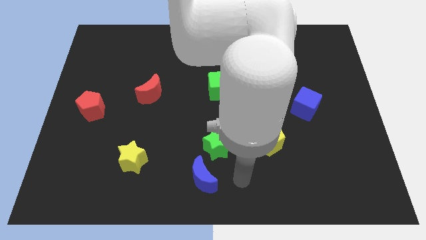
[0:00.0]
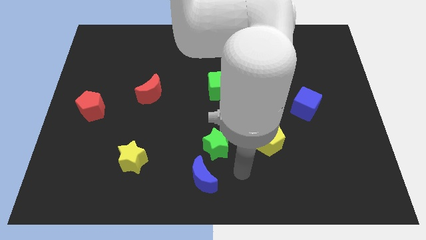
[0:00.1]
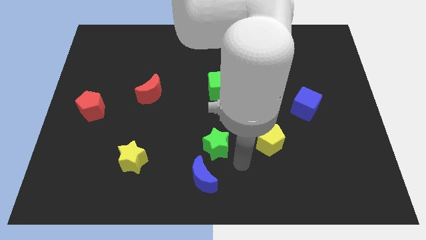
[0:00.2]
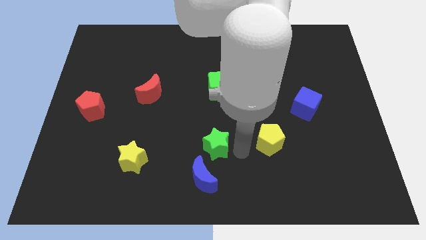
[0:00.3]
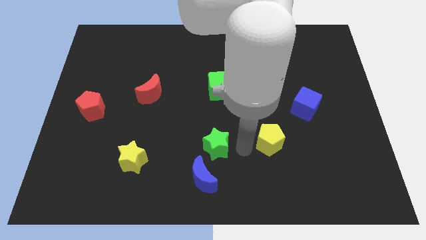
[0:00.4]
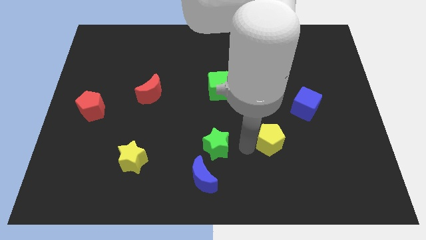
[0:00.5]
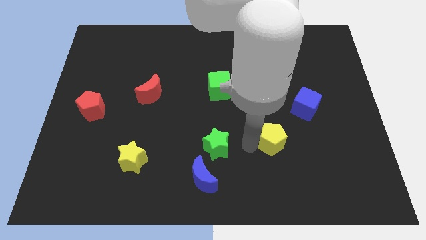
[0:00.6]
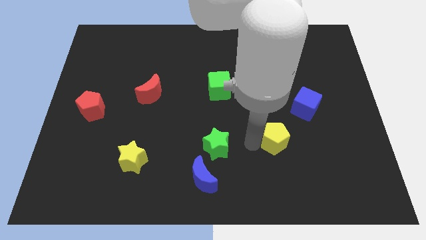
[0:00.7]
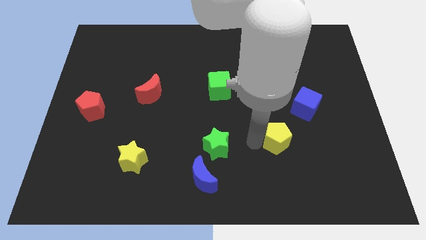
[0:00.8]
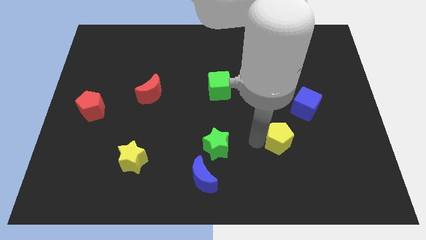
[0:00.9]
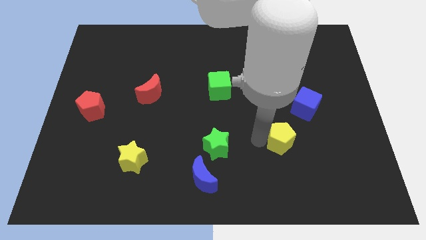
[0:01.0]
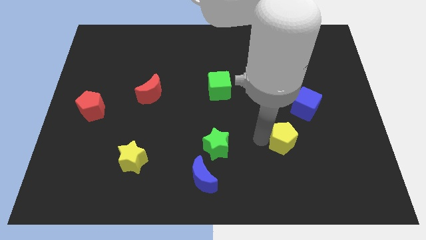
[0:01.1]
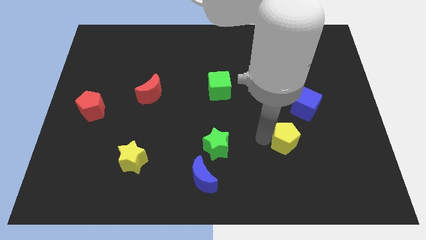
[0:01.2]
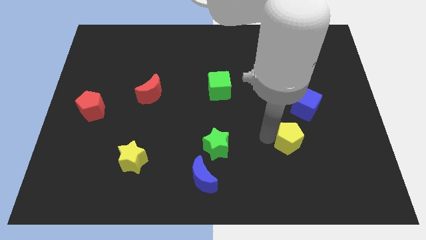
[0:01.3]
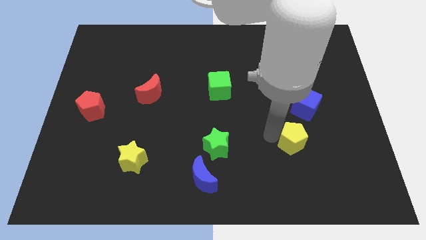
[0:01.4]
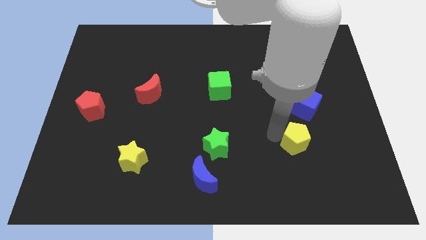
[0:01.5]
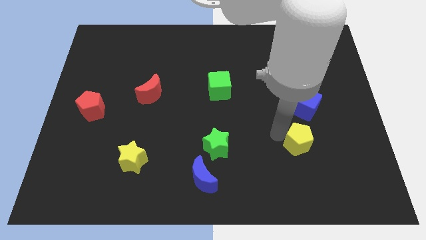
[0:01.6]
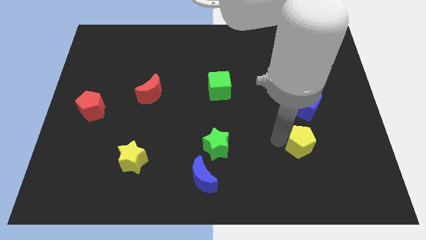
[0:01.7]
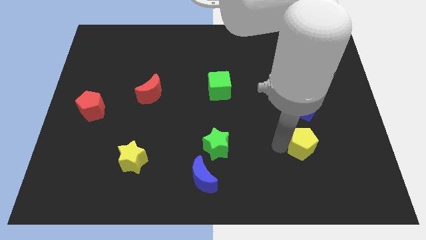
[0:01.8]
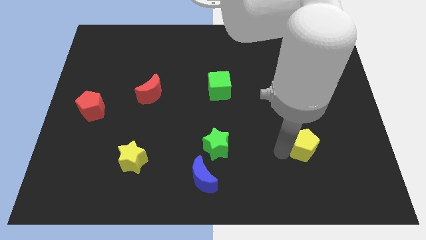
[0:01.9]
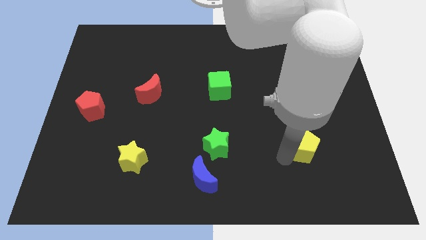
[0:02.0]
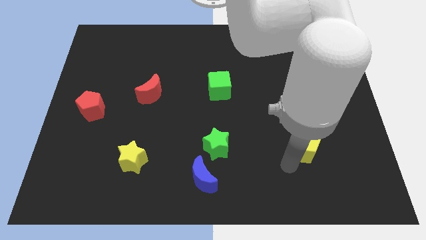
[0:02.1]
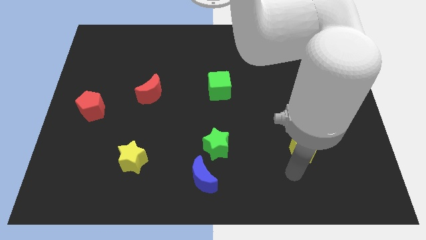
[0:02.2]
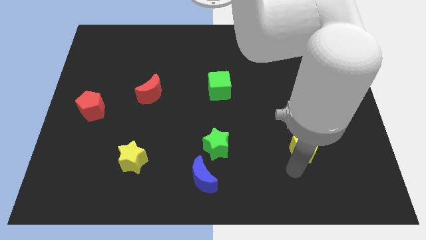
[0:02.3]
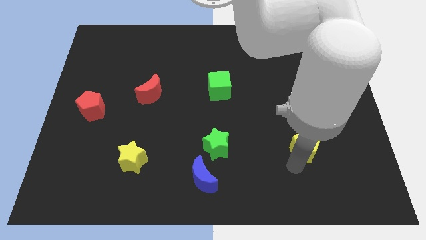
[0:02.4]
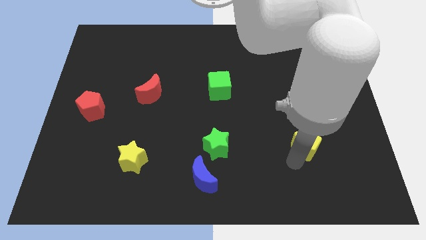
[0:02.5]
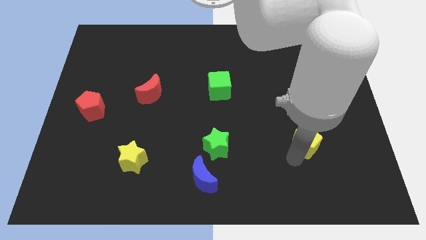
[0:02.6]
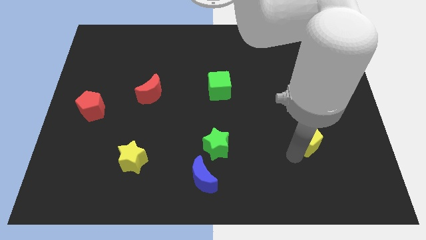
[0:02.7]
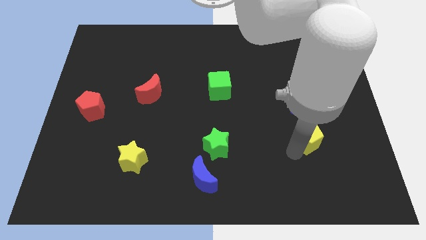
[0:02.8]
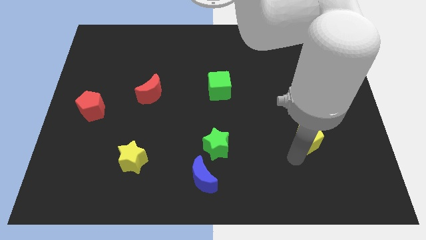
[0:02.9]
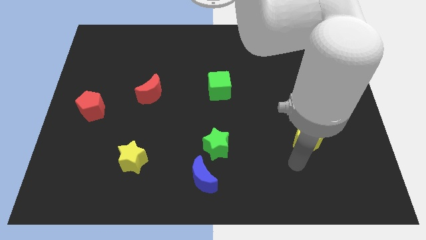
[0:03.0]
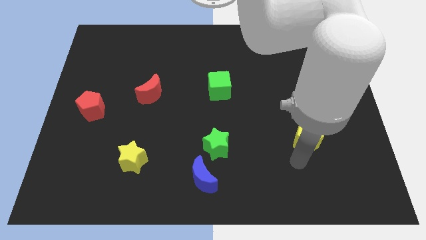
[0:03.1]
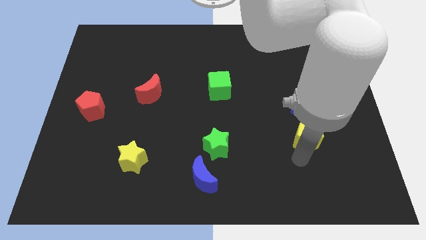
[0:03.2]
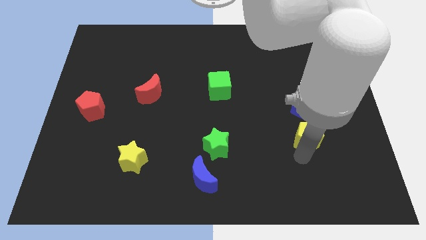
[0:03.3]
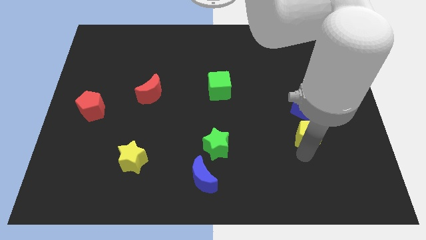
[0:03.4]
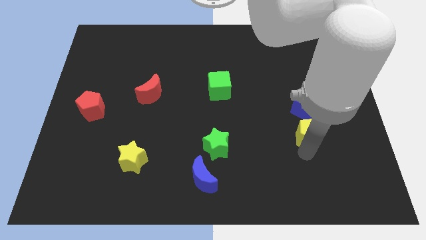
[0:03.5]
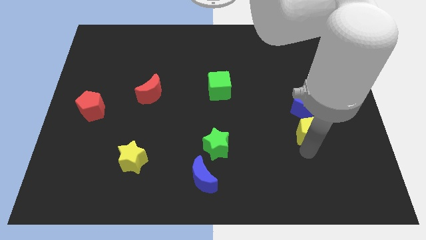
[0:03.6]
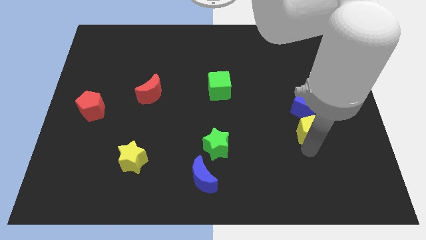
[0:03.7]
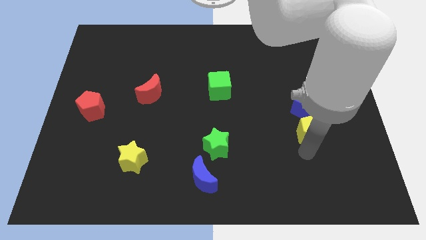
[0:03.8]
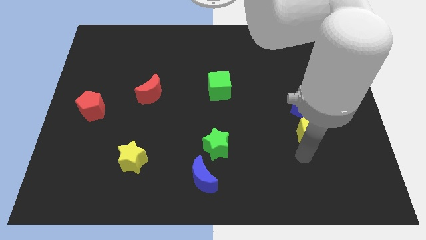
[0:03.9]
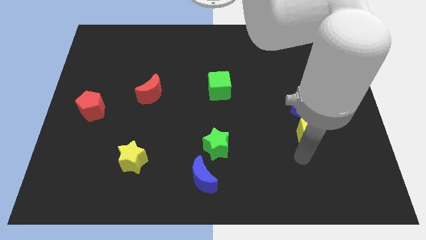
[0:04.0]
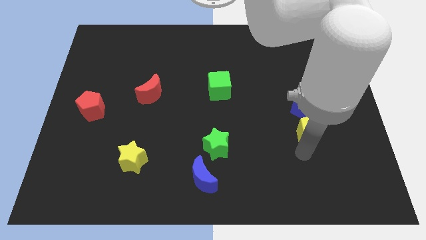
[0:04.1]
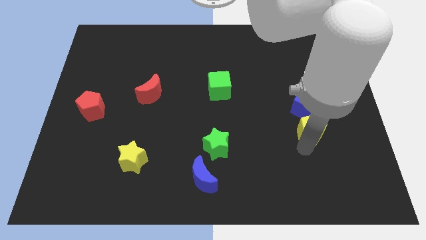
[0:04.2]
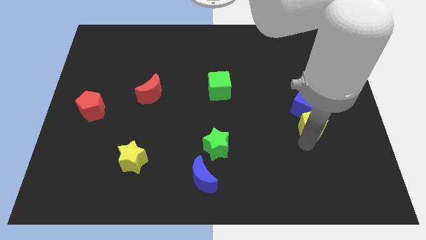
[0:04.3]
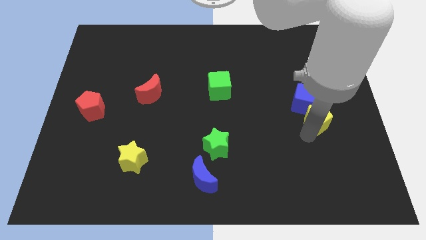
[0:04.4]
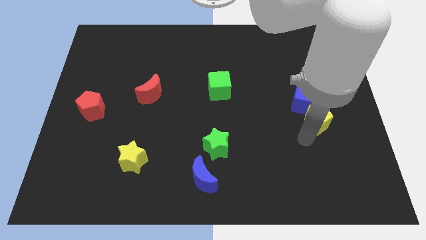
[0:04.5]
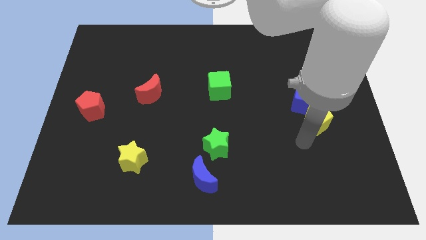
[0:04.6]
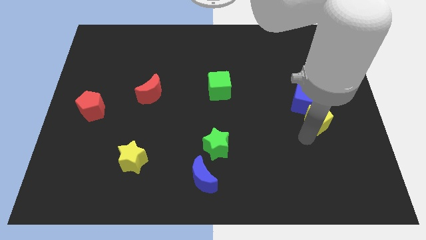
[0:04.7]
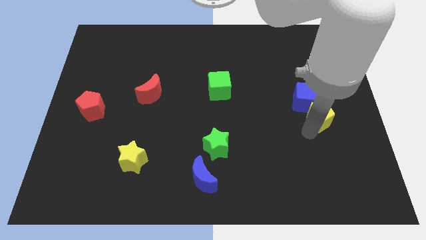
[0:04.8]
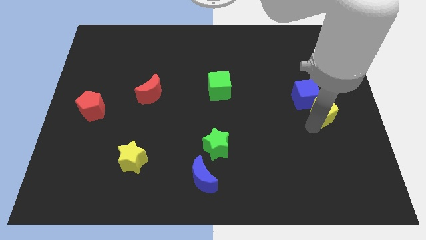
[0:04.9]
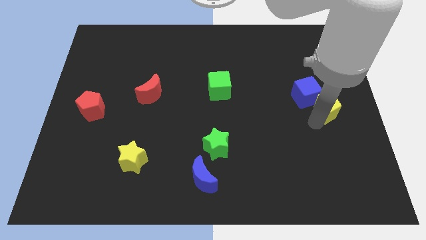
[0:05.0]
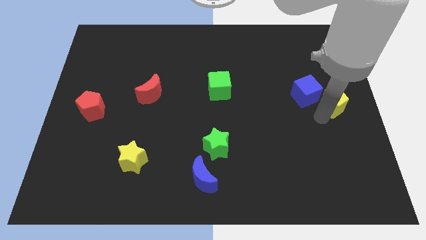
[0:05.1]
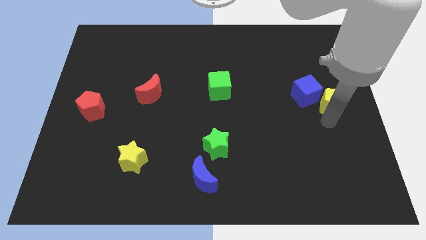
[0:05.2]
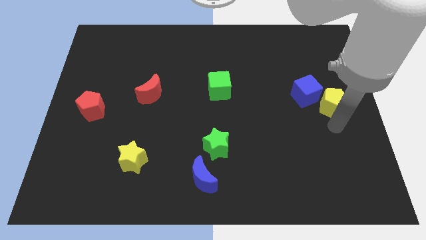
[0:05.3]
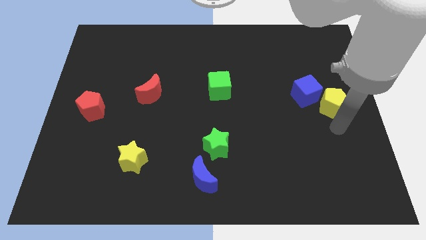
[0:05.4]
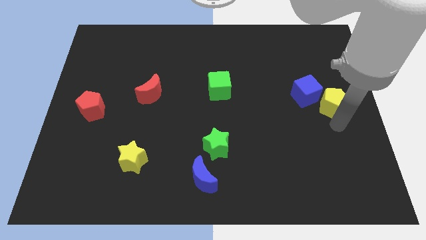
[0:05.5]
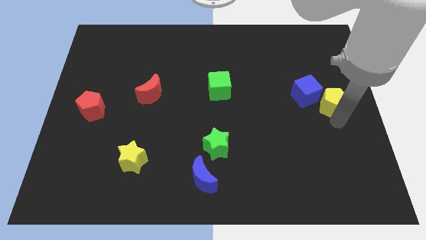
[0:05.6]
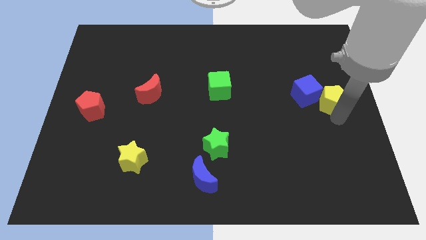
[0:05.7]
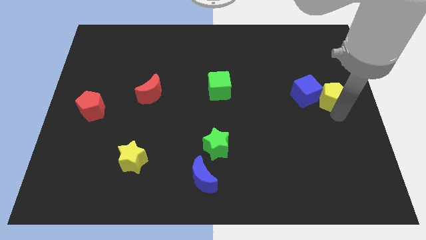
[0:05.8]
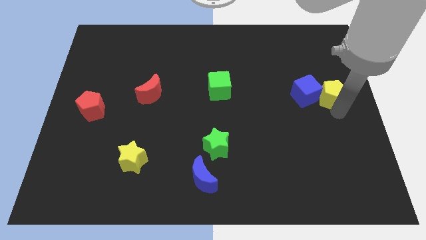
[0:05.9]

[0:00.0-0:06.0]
move the yellow pentagon diagonally up and to the right of the blue cube
